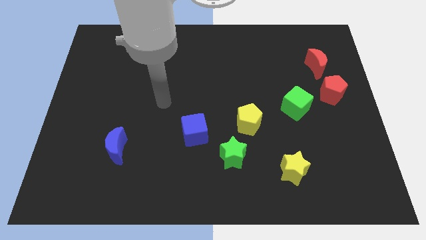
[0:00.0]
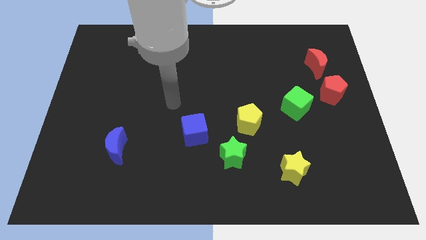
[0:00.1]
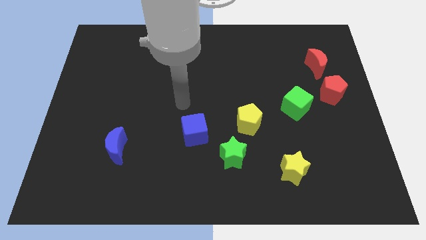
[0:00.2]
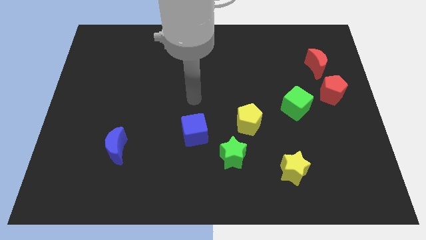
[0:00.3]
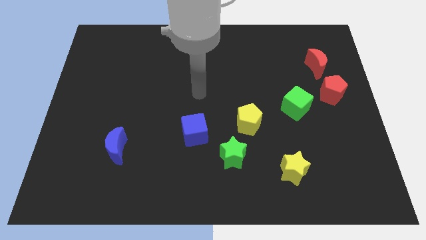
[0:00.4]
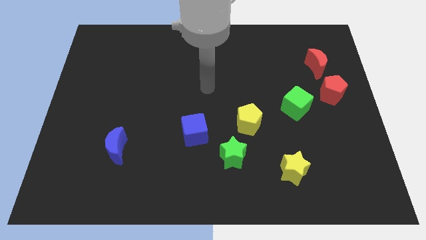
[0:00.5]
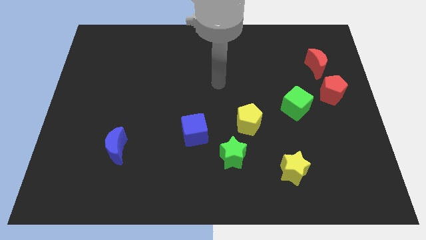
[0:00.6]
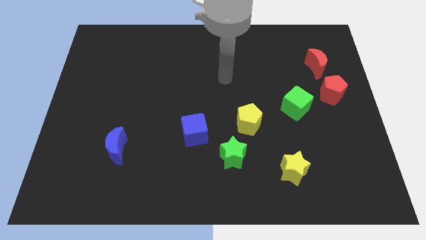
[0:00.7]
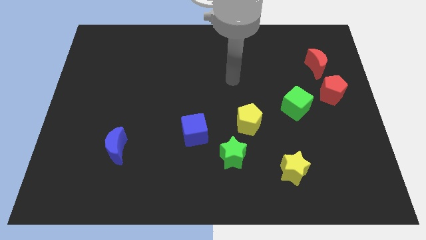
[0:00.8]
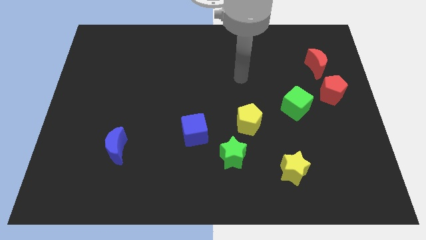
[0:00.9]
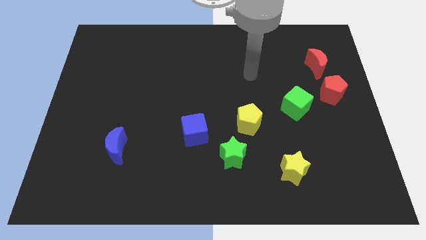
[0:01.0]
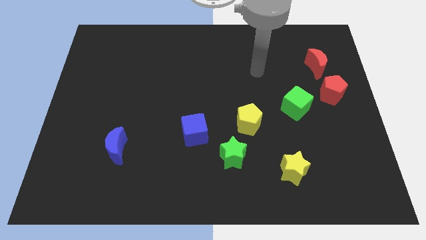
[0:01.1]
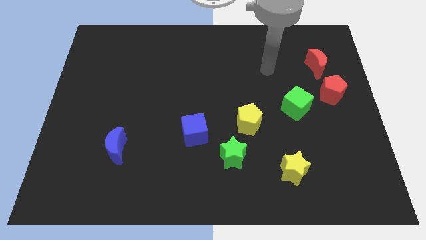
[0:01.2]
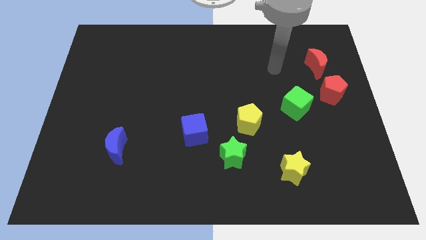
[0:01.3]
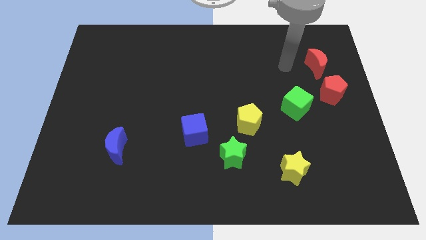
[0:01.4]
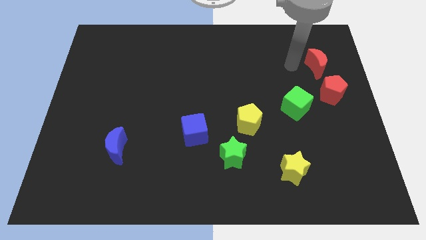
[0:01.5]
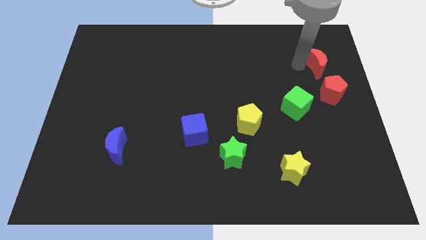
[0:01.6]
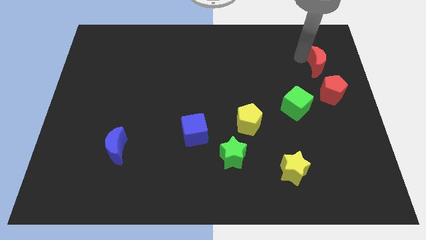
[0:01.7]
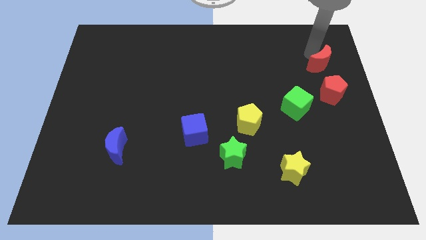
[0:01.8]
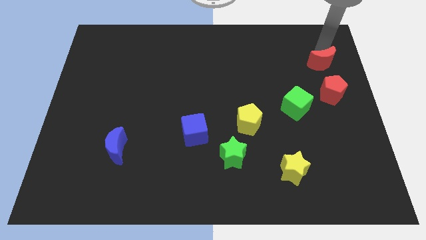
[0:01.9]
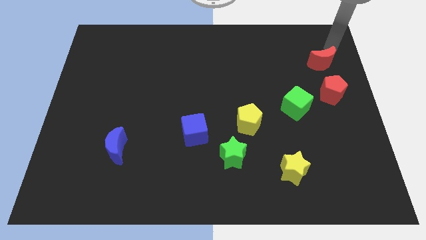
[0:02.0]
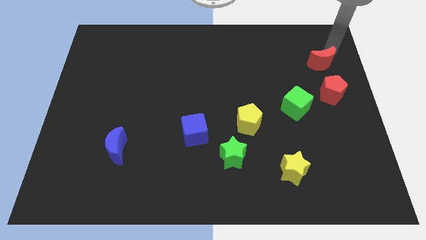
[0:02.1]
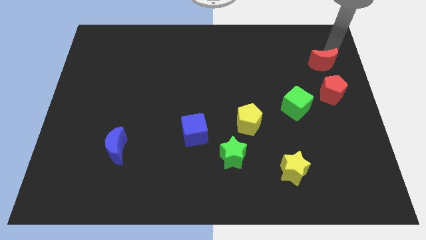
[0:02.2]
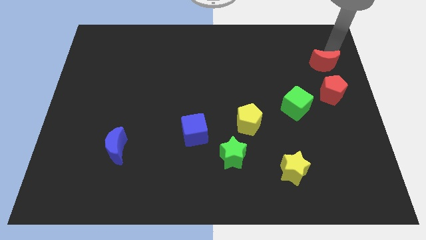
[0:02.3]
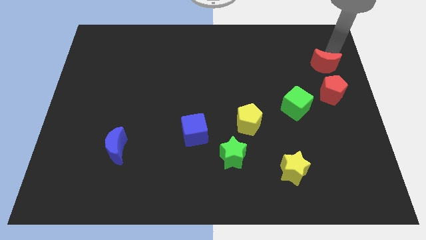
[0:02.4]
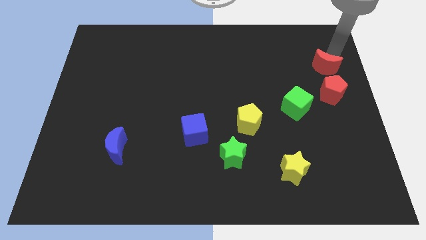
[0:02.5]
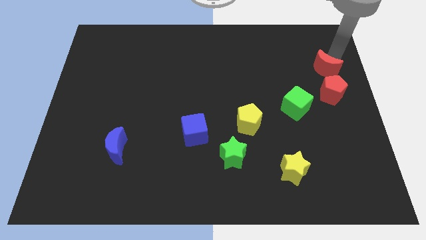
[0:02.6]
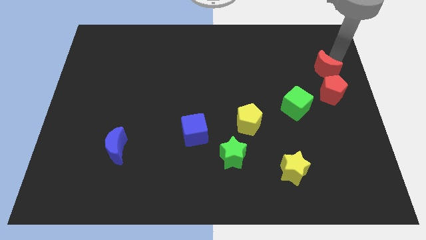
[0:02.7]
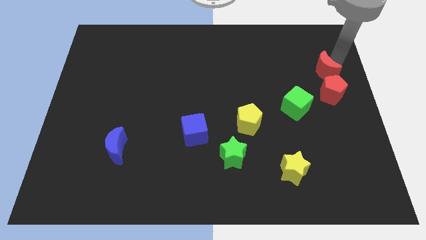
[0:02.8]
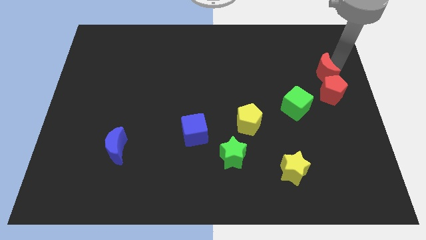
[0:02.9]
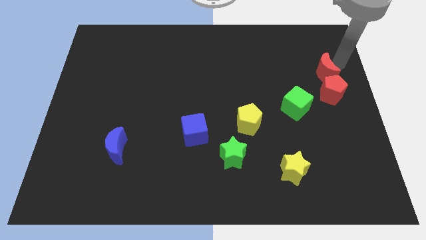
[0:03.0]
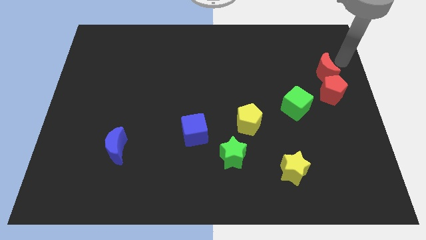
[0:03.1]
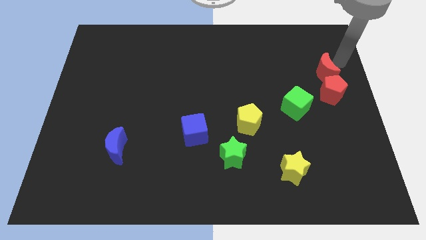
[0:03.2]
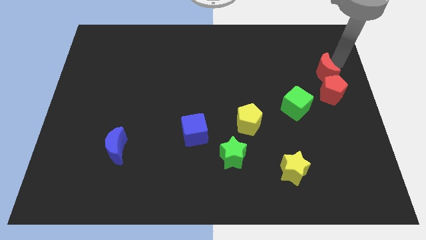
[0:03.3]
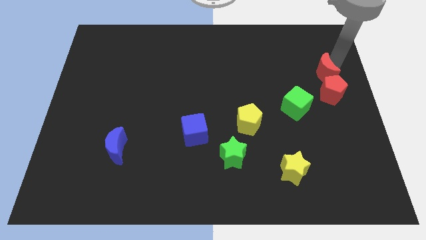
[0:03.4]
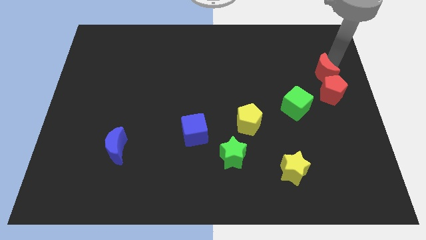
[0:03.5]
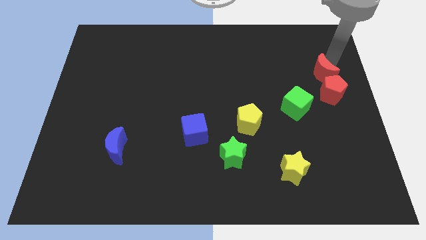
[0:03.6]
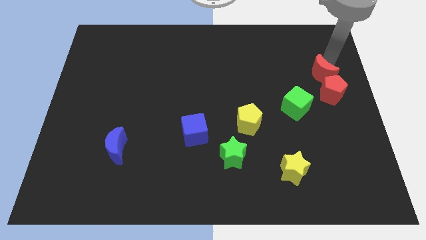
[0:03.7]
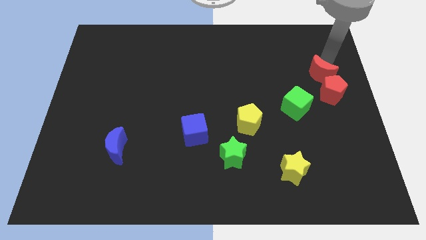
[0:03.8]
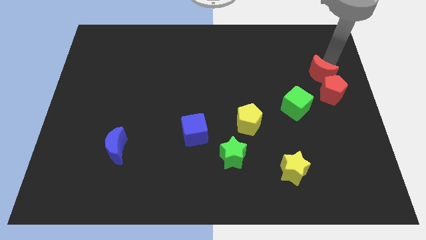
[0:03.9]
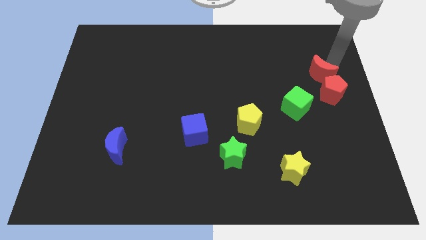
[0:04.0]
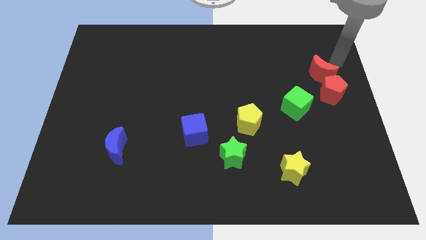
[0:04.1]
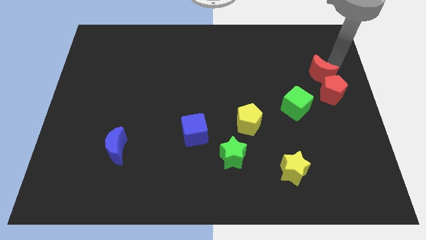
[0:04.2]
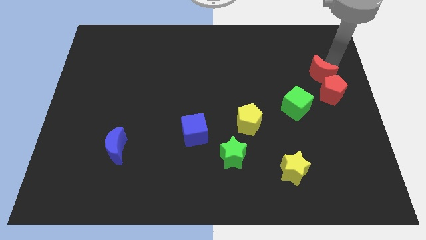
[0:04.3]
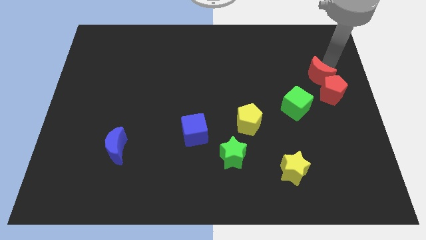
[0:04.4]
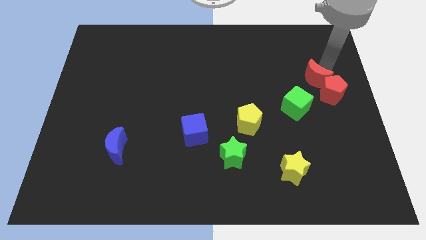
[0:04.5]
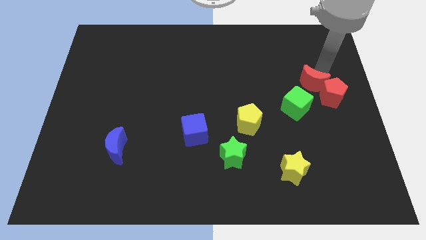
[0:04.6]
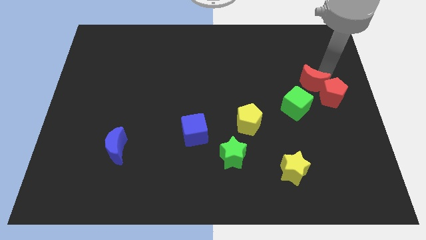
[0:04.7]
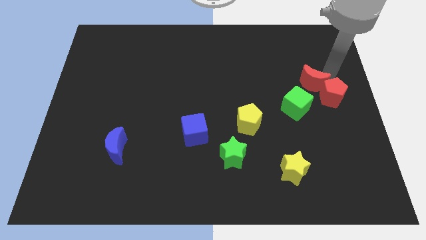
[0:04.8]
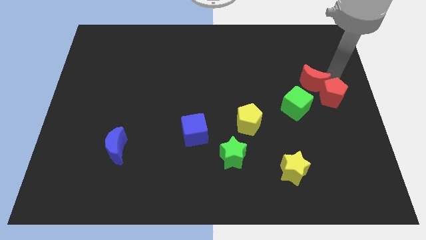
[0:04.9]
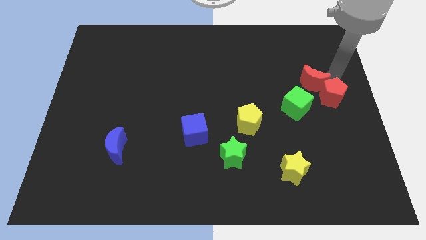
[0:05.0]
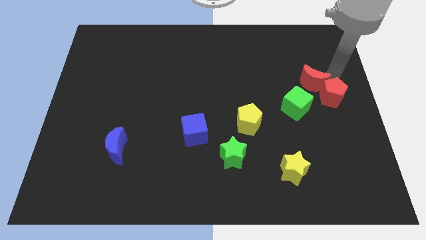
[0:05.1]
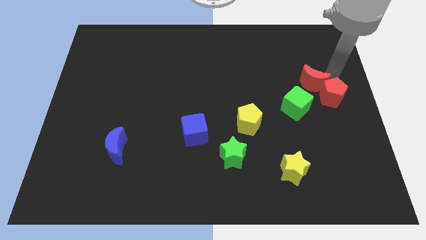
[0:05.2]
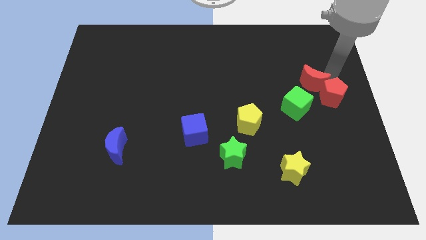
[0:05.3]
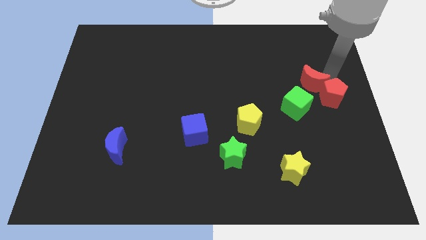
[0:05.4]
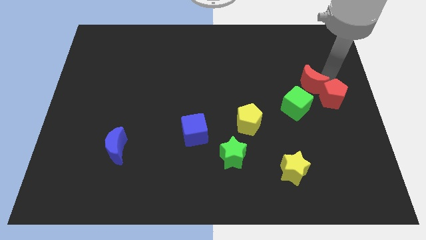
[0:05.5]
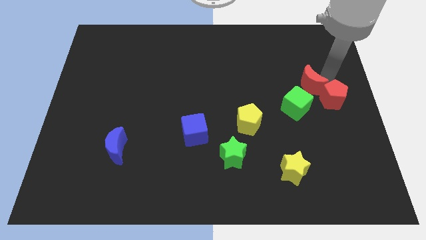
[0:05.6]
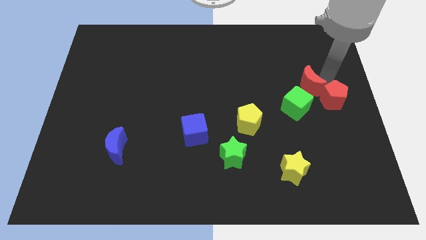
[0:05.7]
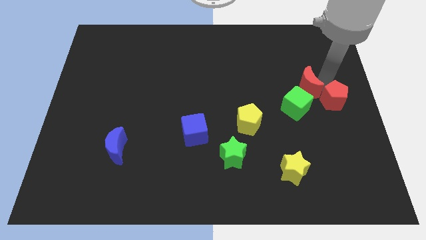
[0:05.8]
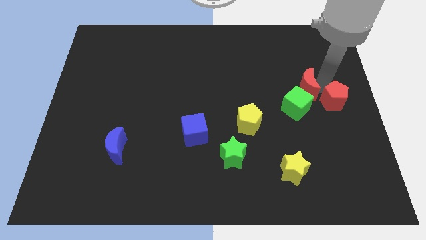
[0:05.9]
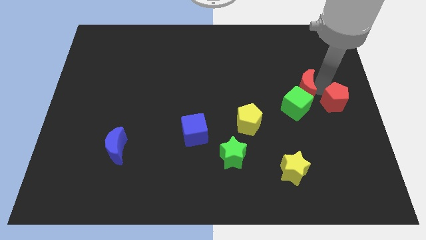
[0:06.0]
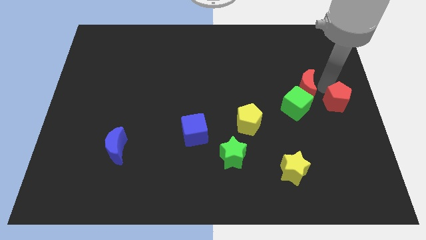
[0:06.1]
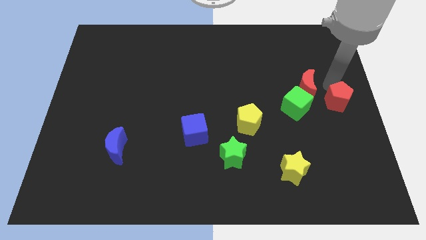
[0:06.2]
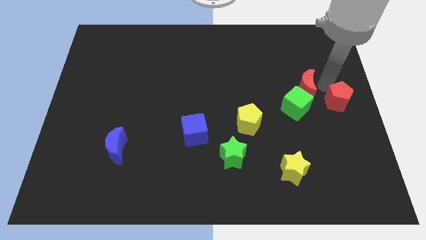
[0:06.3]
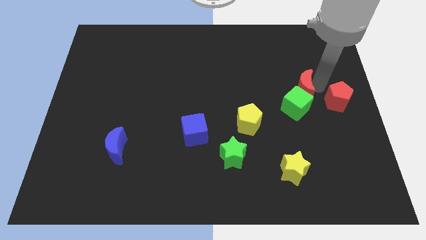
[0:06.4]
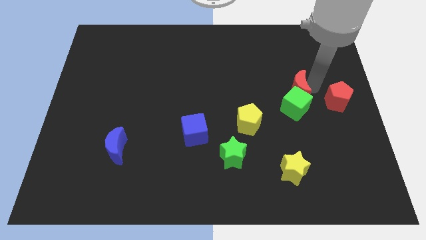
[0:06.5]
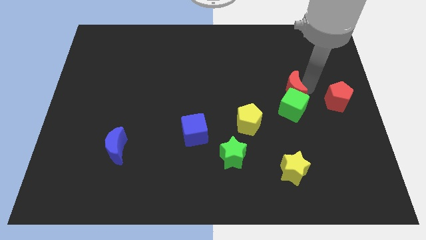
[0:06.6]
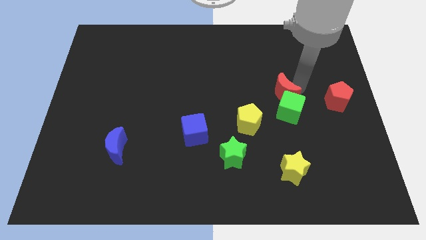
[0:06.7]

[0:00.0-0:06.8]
put the red moon to the top right side of the yellow pentagon

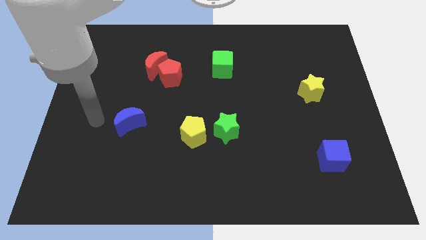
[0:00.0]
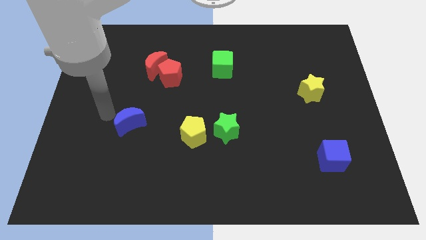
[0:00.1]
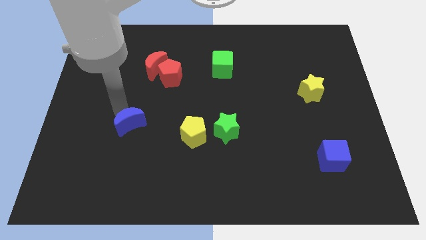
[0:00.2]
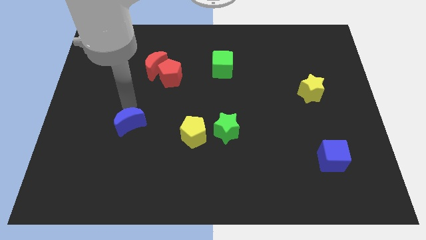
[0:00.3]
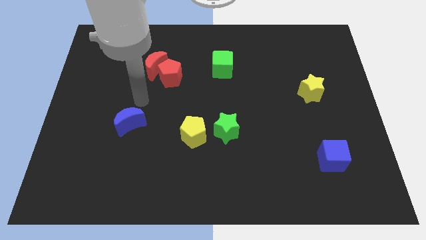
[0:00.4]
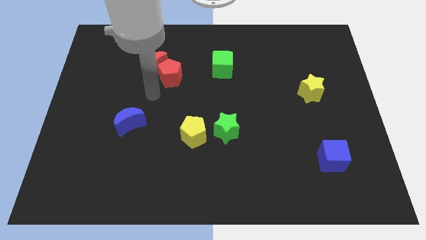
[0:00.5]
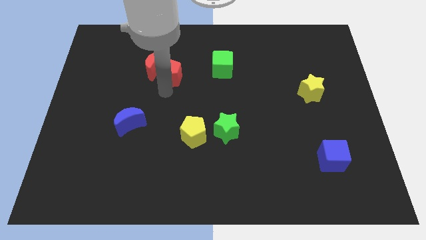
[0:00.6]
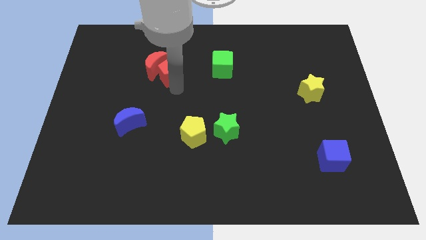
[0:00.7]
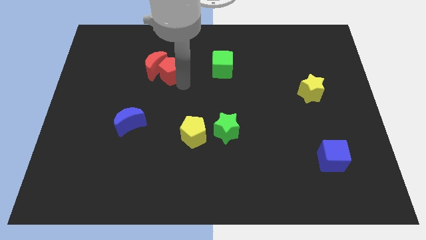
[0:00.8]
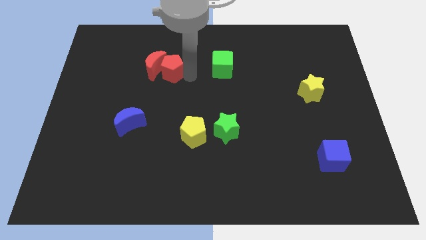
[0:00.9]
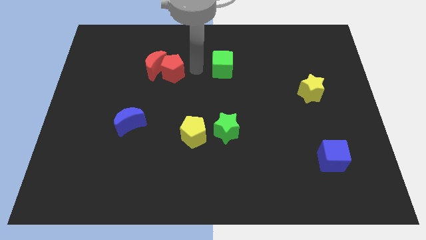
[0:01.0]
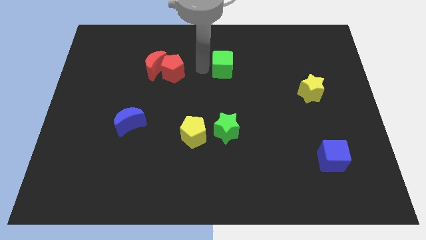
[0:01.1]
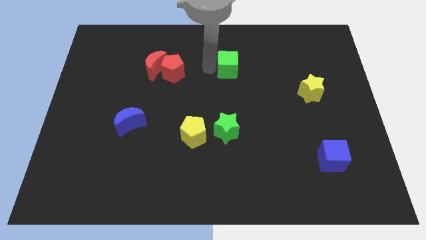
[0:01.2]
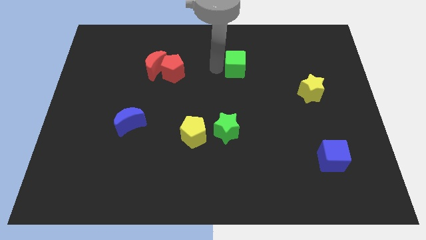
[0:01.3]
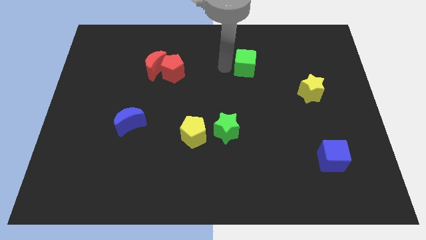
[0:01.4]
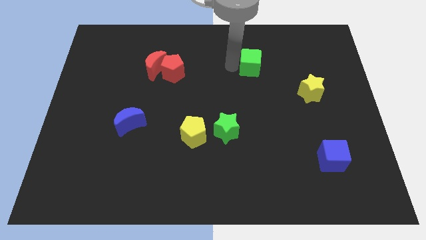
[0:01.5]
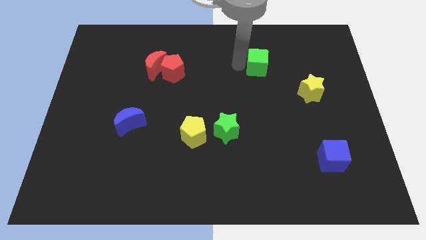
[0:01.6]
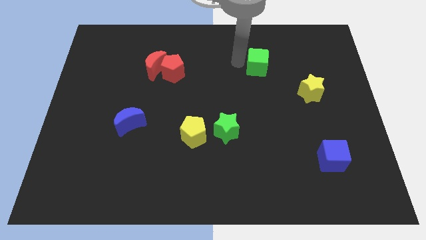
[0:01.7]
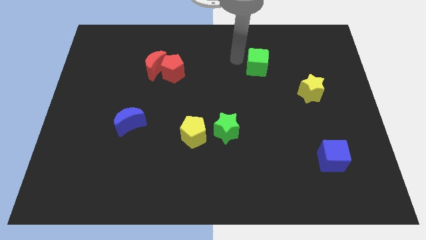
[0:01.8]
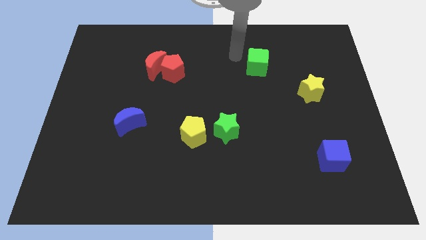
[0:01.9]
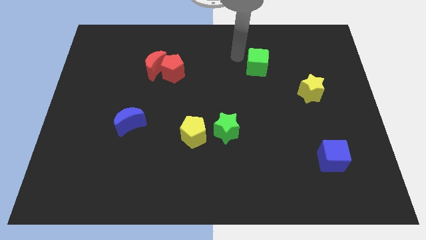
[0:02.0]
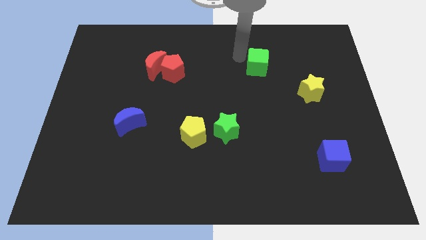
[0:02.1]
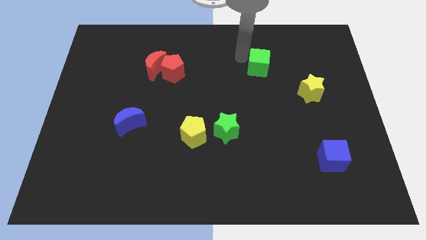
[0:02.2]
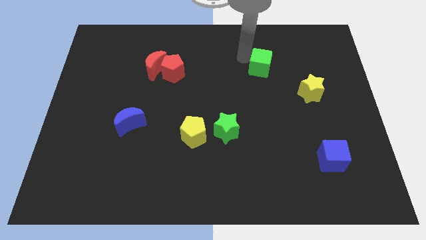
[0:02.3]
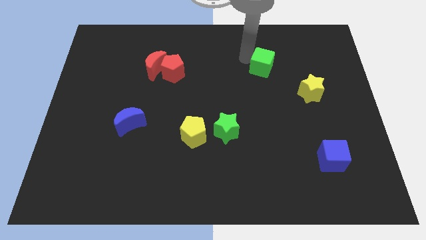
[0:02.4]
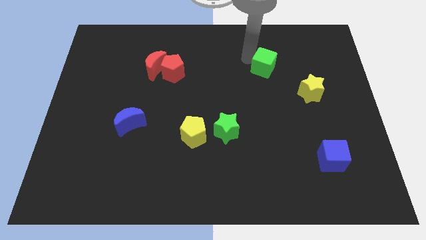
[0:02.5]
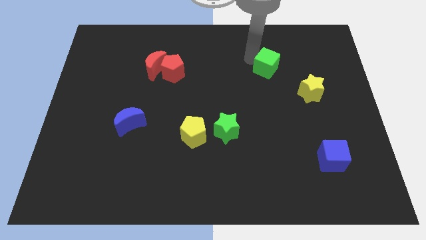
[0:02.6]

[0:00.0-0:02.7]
put the green cube to the top left side of the yellow star
